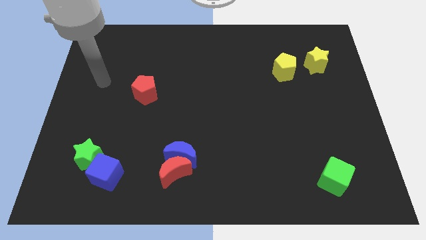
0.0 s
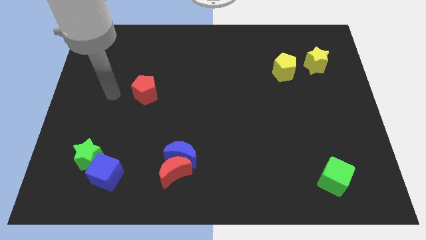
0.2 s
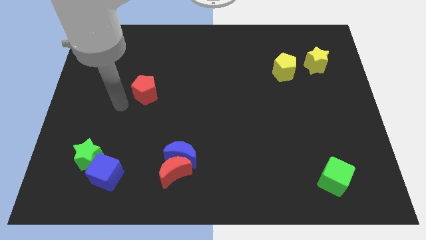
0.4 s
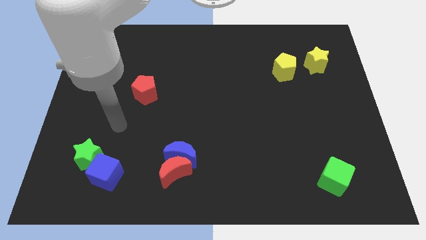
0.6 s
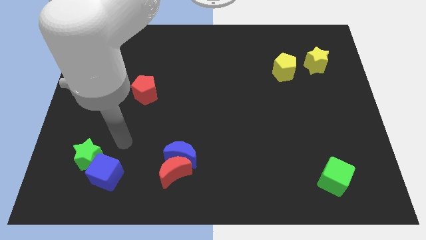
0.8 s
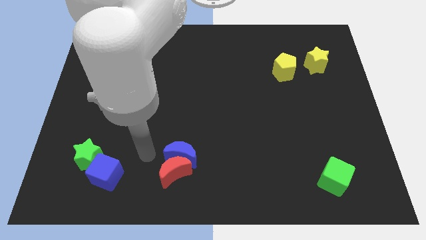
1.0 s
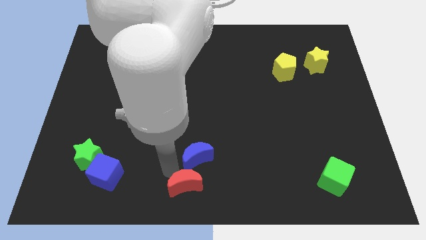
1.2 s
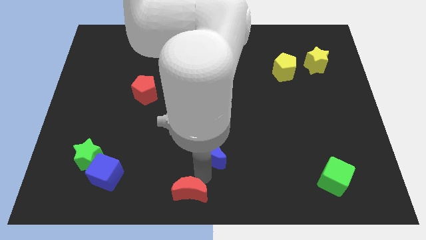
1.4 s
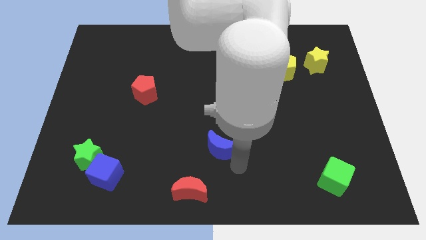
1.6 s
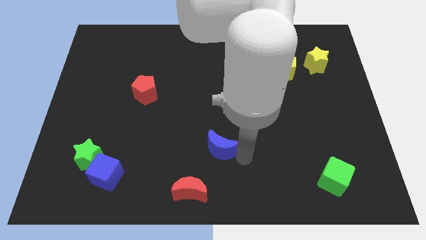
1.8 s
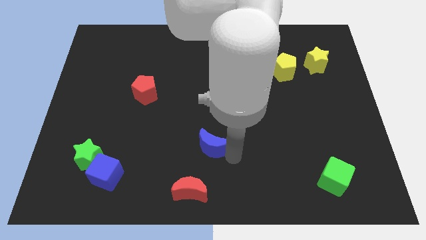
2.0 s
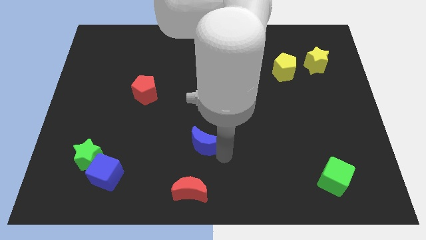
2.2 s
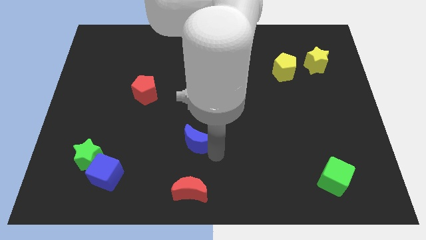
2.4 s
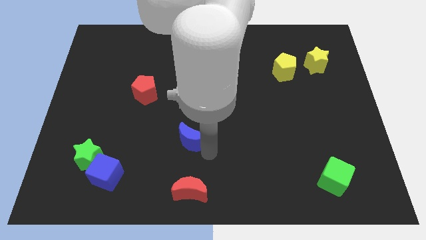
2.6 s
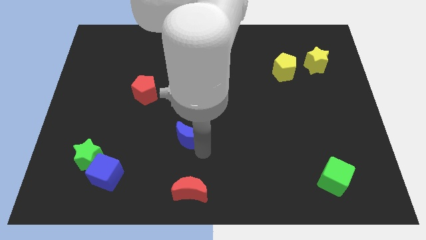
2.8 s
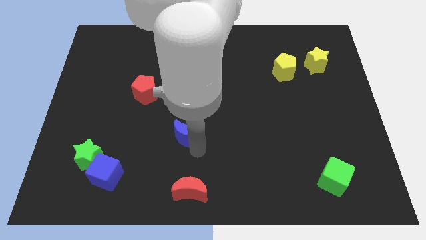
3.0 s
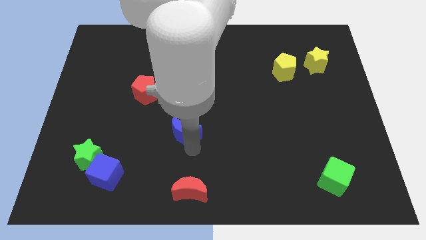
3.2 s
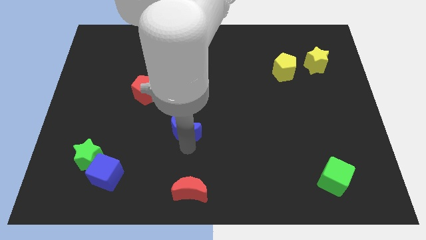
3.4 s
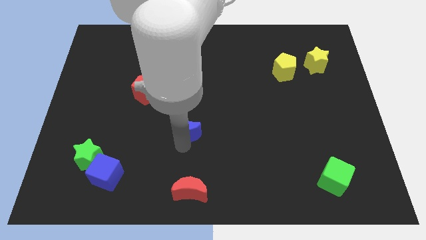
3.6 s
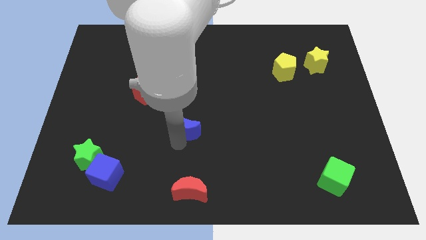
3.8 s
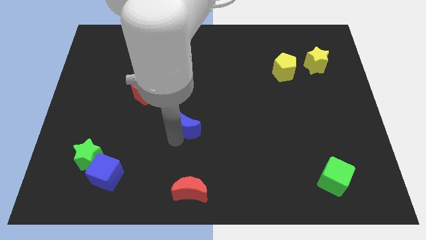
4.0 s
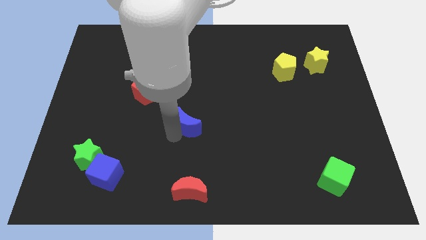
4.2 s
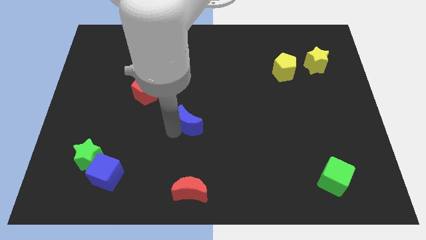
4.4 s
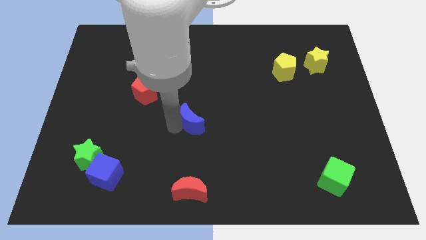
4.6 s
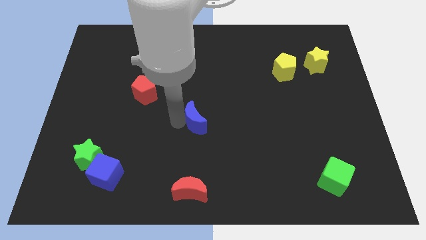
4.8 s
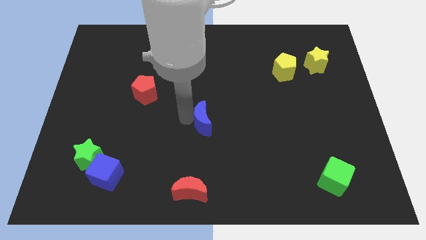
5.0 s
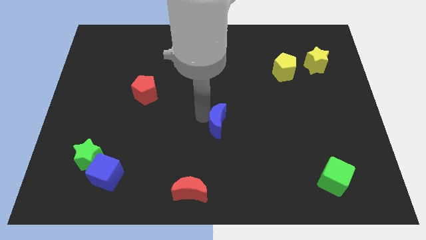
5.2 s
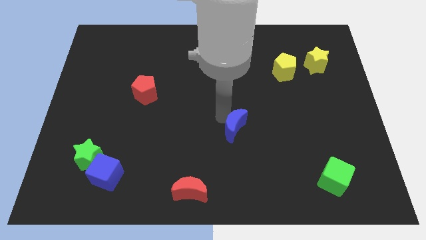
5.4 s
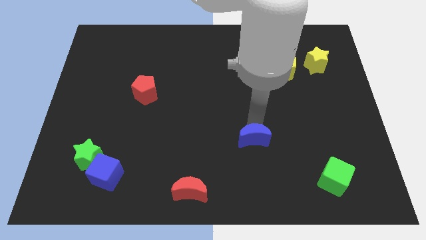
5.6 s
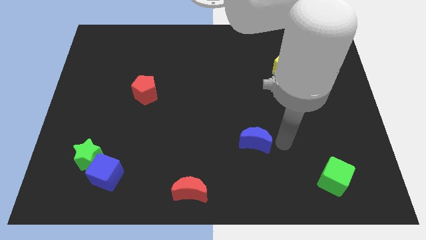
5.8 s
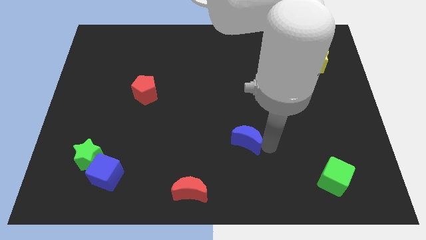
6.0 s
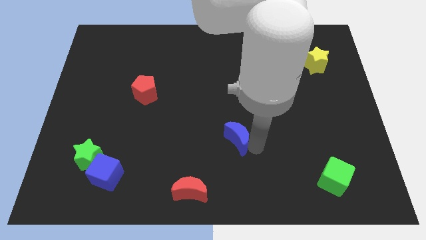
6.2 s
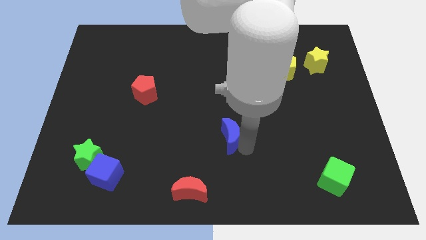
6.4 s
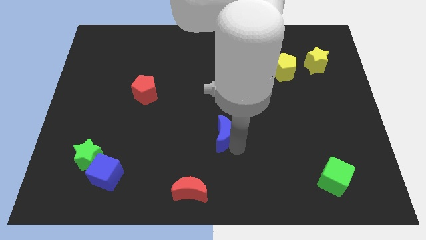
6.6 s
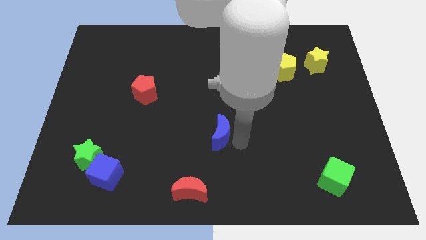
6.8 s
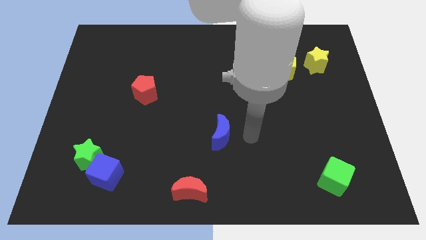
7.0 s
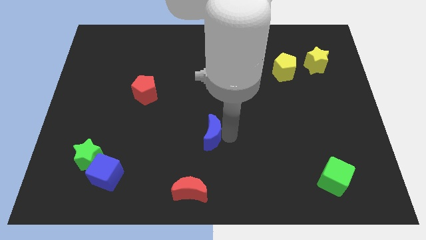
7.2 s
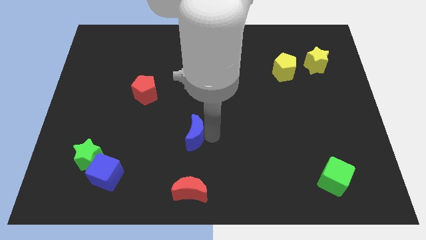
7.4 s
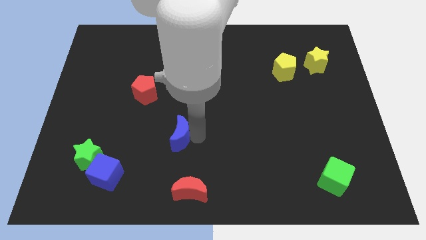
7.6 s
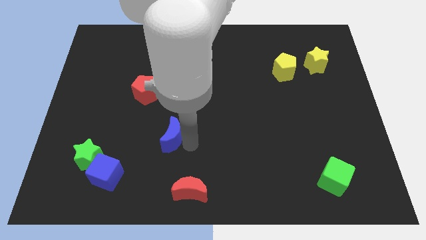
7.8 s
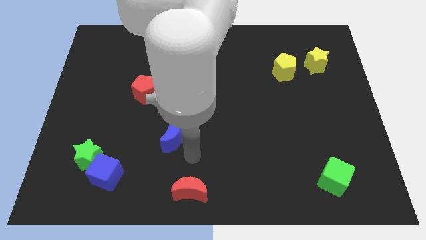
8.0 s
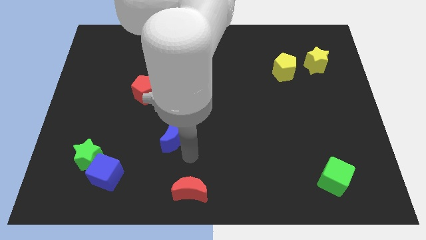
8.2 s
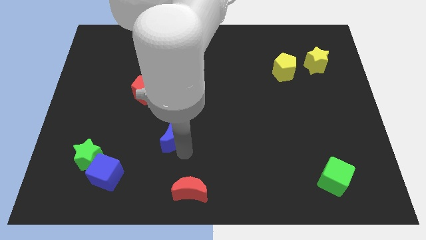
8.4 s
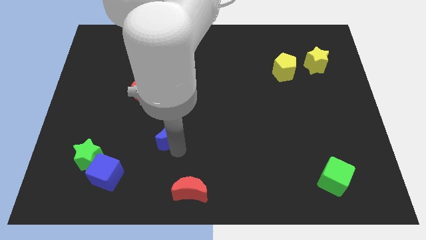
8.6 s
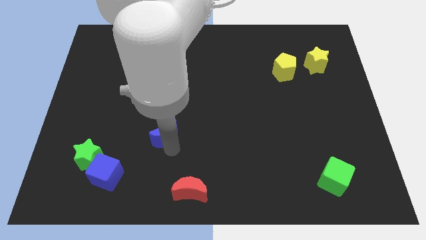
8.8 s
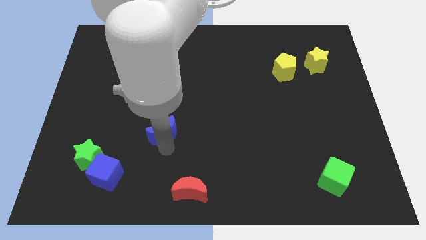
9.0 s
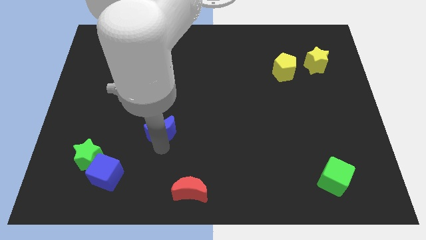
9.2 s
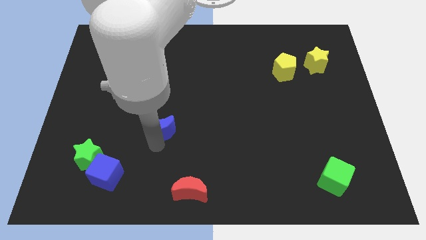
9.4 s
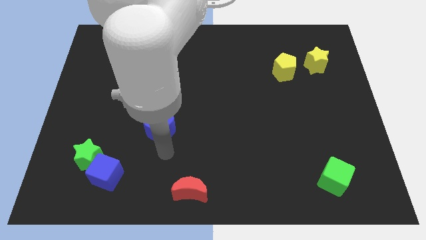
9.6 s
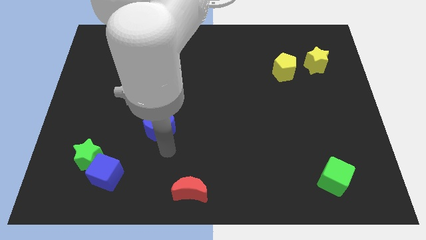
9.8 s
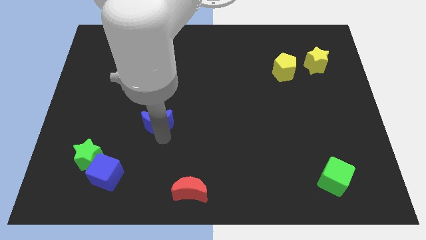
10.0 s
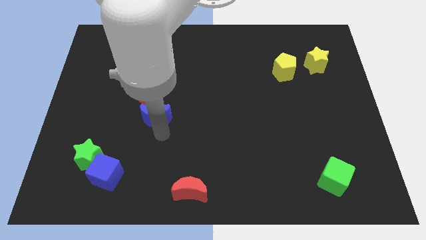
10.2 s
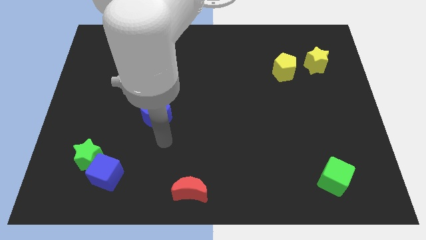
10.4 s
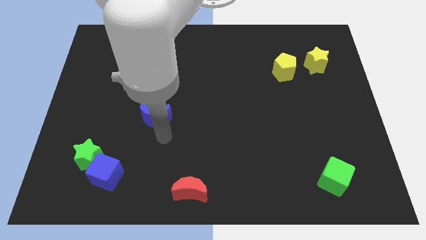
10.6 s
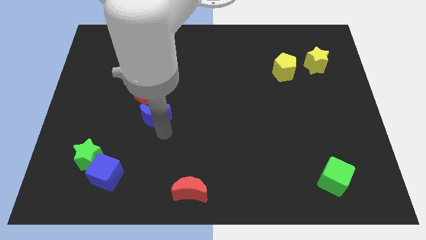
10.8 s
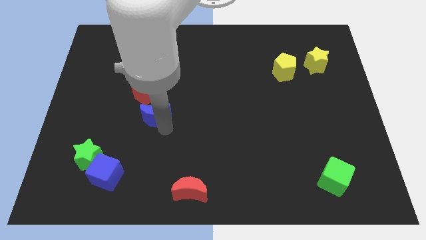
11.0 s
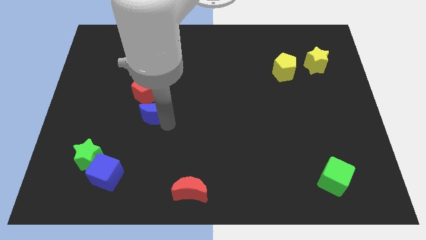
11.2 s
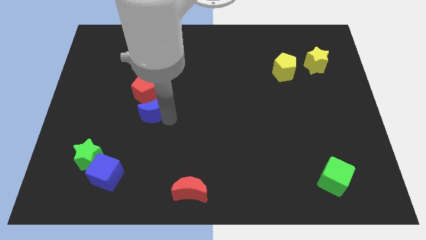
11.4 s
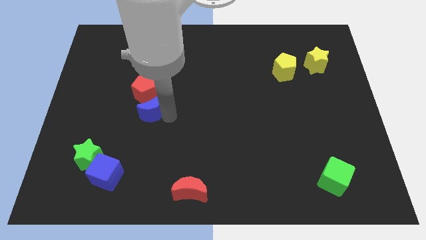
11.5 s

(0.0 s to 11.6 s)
move the blue moon towards the red pentagon

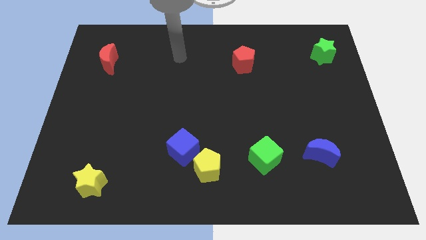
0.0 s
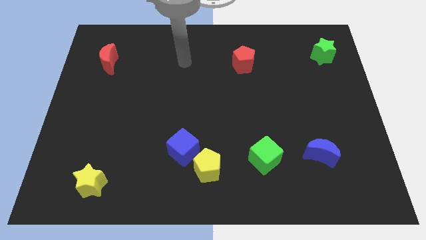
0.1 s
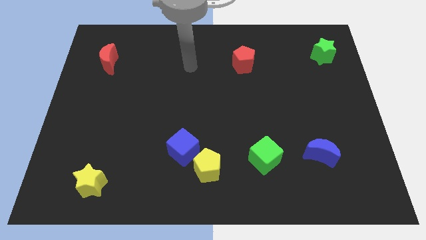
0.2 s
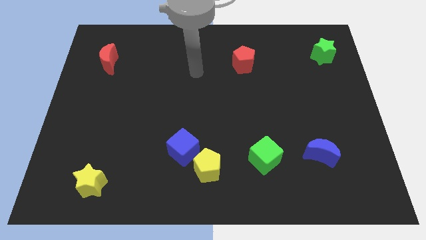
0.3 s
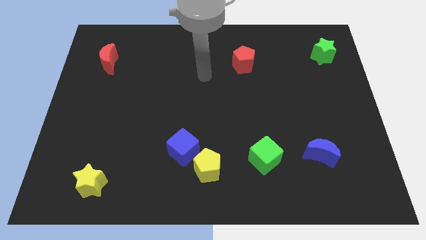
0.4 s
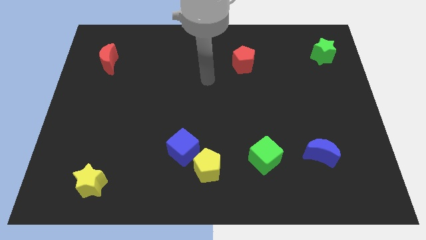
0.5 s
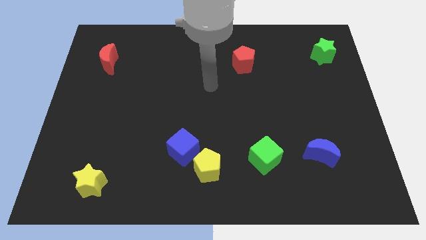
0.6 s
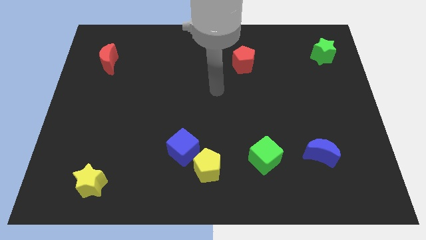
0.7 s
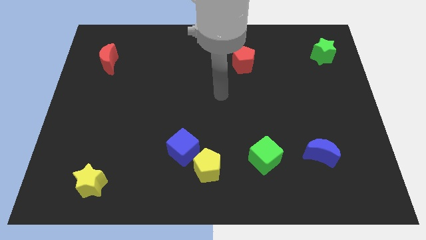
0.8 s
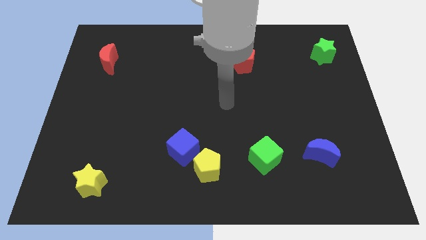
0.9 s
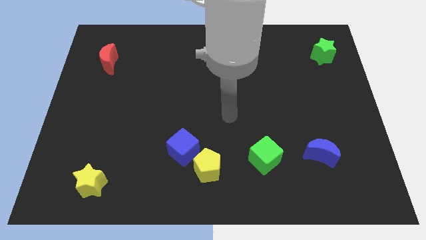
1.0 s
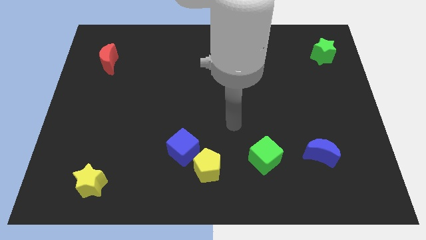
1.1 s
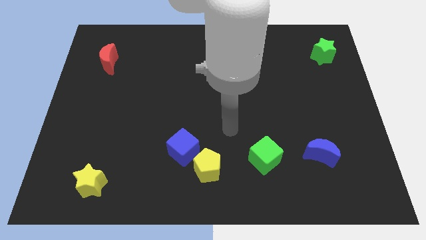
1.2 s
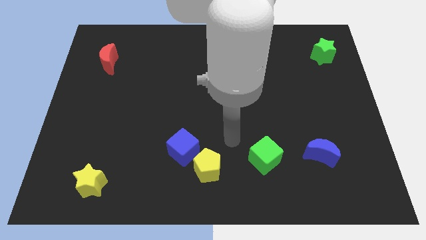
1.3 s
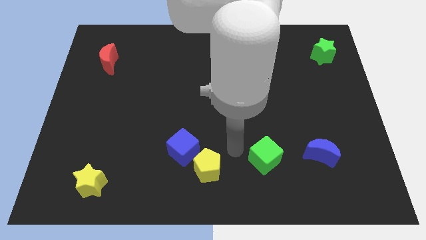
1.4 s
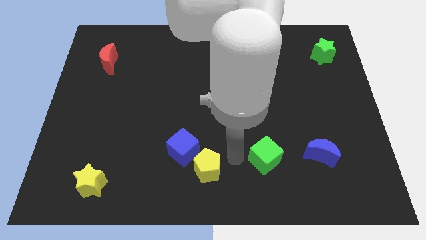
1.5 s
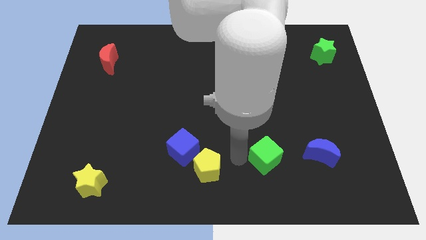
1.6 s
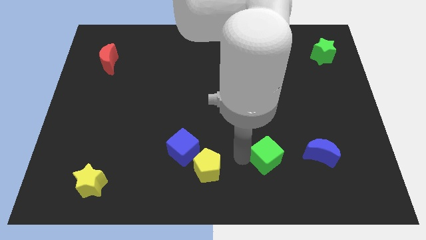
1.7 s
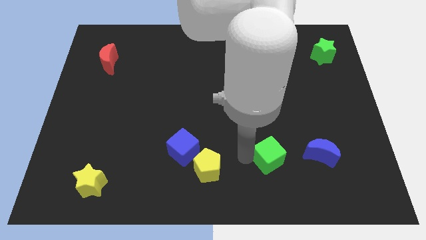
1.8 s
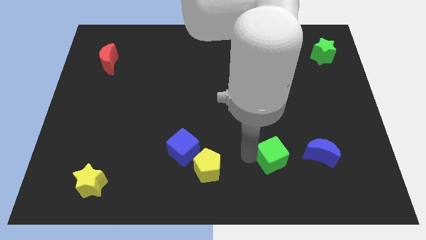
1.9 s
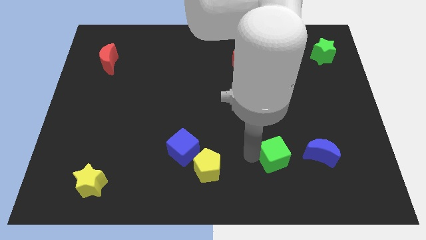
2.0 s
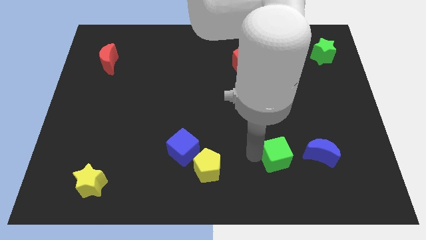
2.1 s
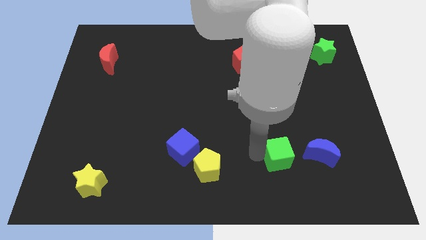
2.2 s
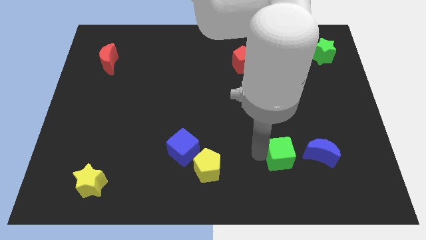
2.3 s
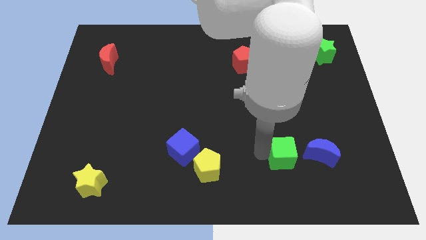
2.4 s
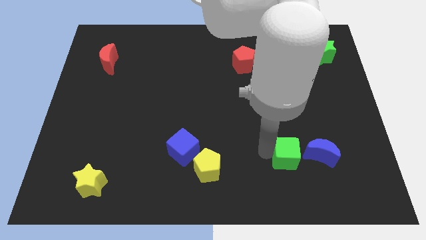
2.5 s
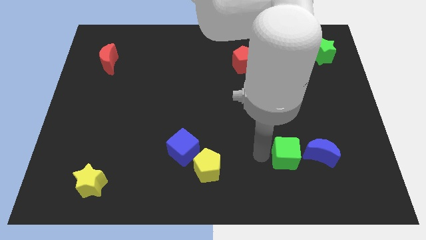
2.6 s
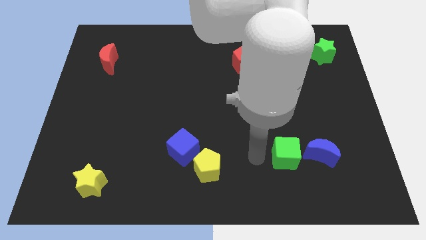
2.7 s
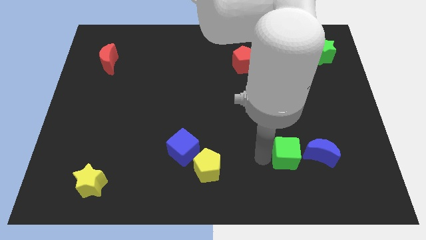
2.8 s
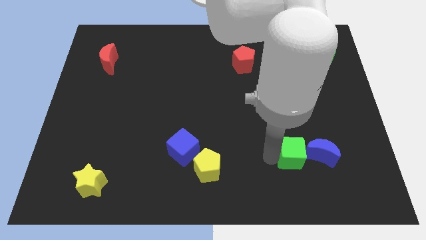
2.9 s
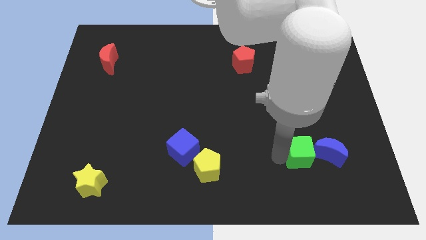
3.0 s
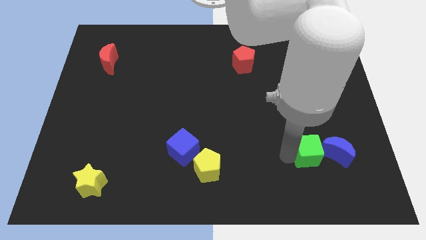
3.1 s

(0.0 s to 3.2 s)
put the green cube close to the blue moon
